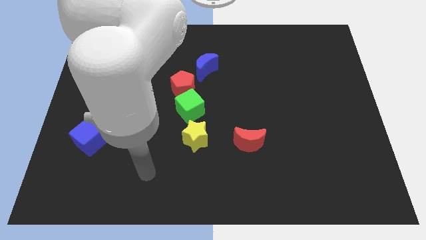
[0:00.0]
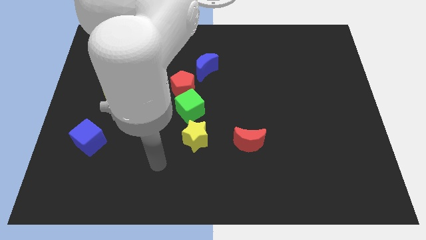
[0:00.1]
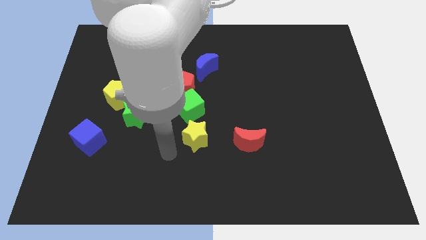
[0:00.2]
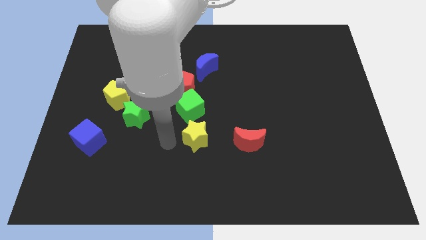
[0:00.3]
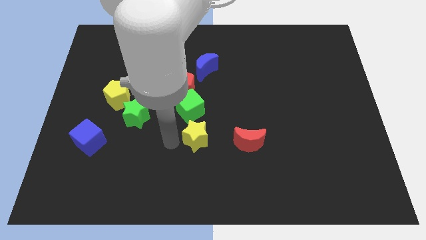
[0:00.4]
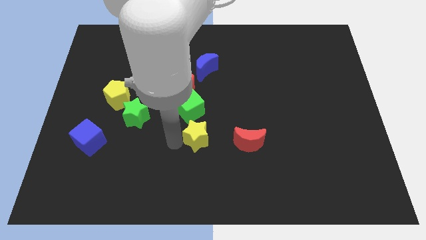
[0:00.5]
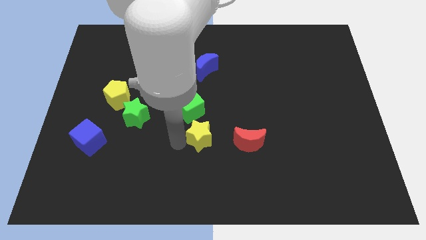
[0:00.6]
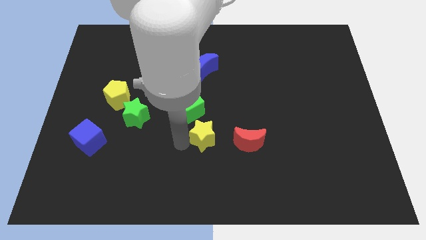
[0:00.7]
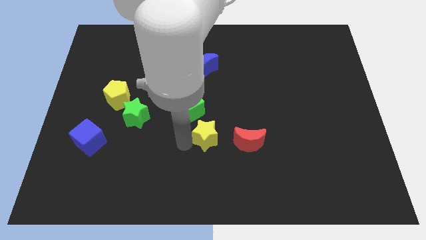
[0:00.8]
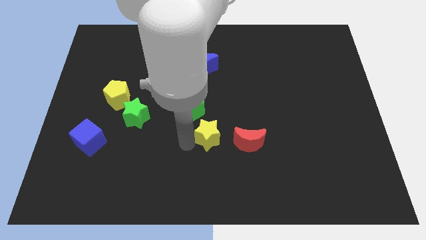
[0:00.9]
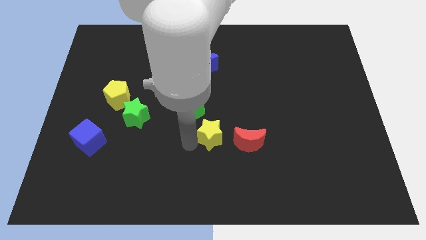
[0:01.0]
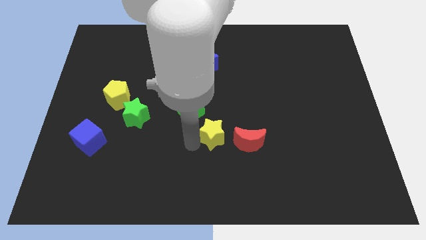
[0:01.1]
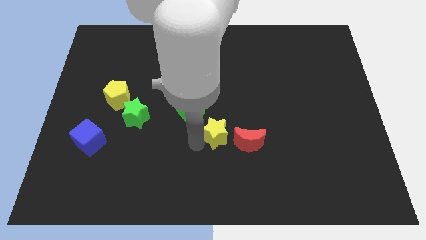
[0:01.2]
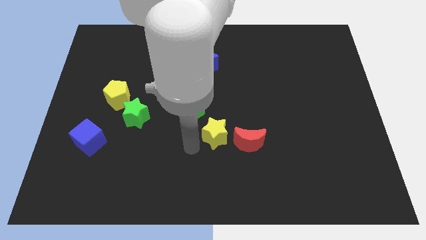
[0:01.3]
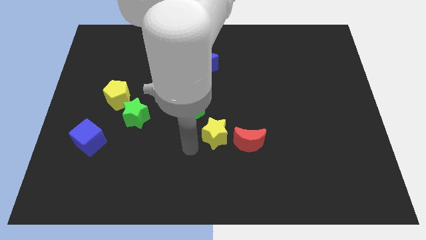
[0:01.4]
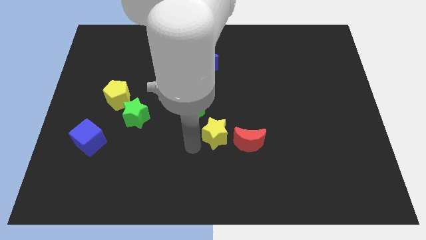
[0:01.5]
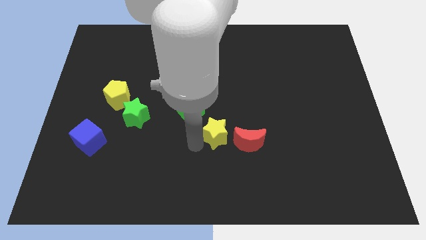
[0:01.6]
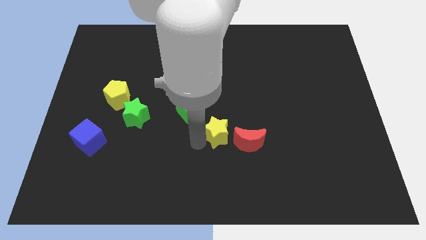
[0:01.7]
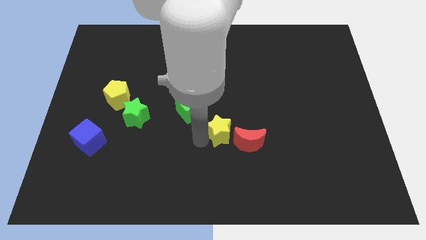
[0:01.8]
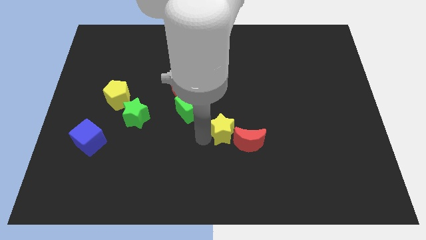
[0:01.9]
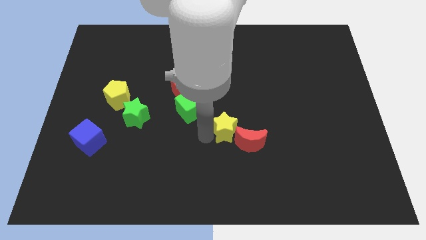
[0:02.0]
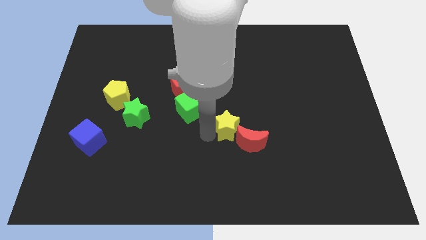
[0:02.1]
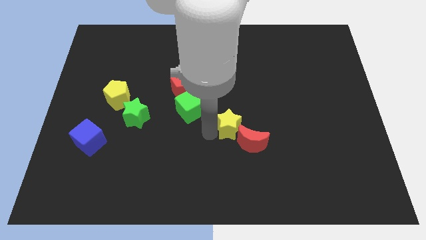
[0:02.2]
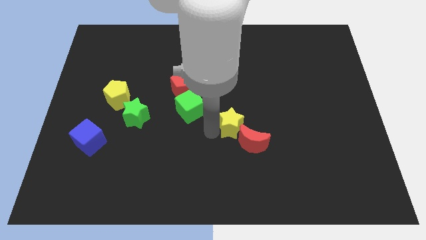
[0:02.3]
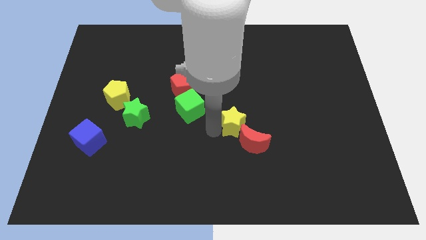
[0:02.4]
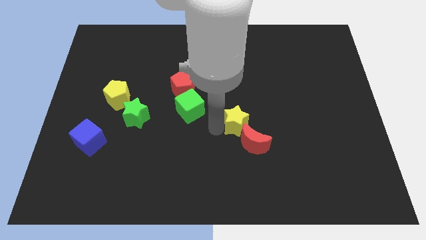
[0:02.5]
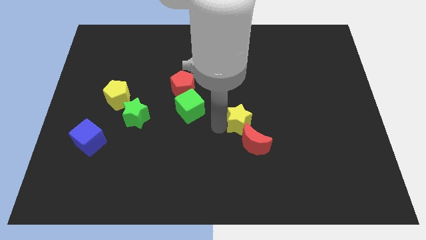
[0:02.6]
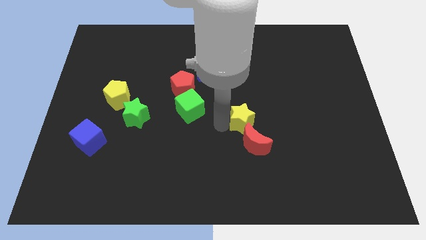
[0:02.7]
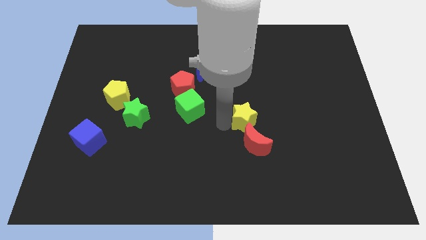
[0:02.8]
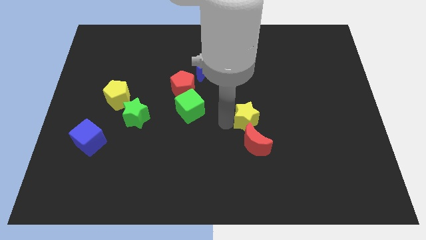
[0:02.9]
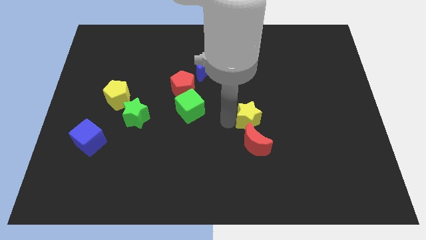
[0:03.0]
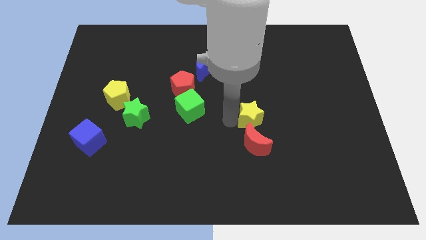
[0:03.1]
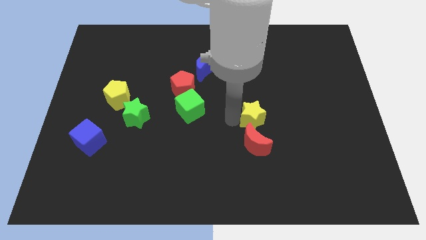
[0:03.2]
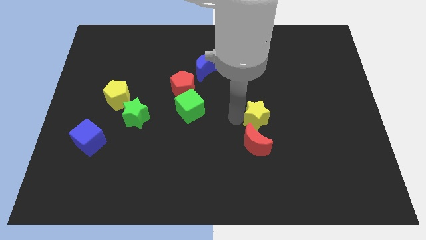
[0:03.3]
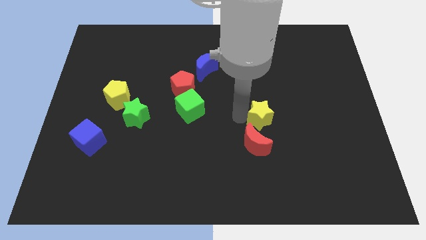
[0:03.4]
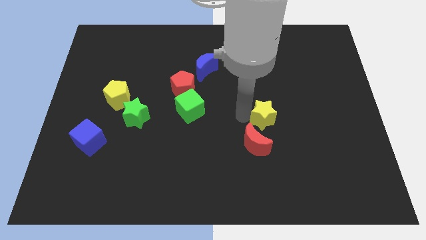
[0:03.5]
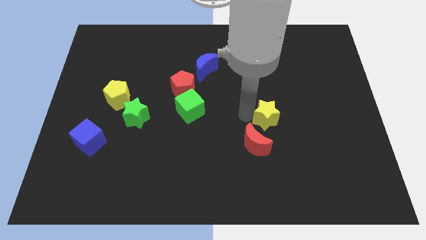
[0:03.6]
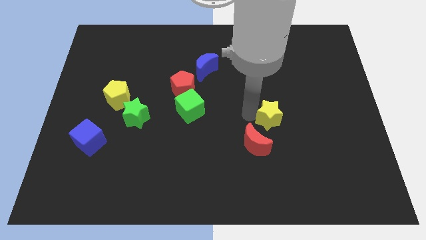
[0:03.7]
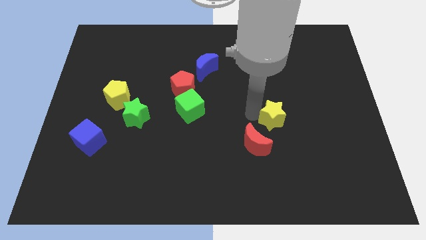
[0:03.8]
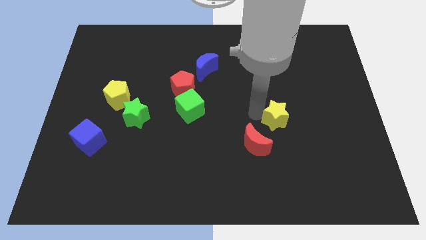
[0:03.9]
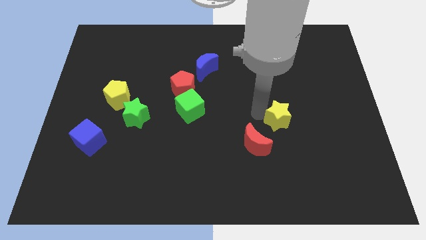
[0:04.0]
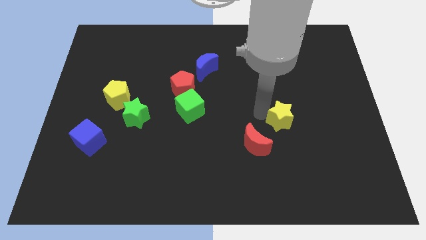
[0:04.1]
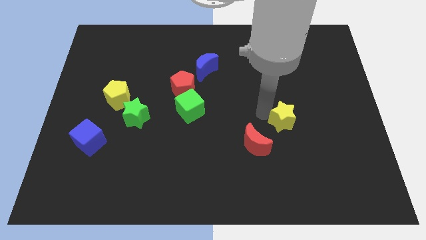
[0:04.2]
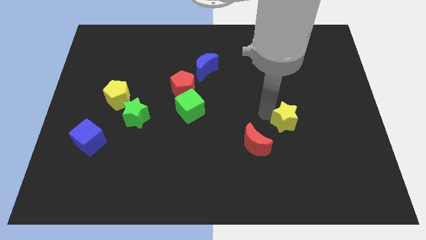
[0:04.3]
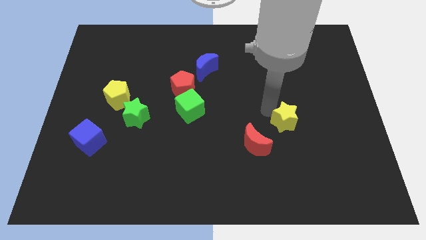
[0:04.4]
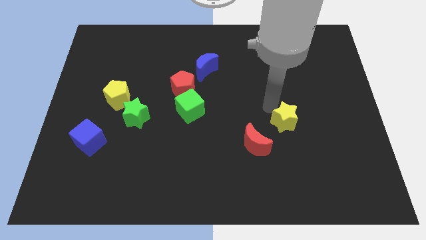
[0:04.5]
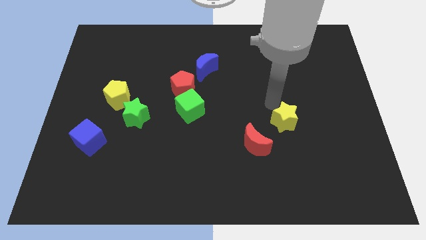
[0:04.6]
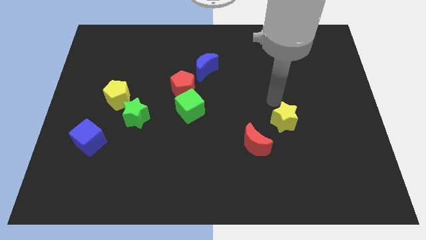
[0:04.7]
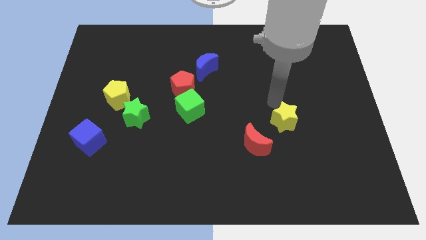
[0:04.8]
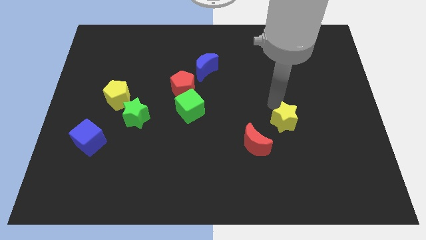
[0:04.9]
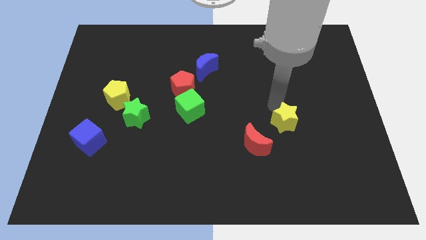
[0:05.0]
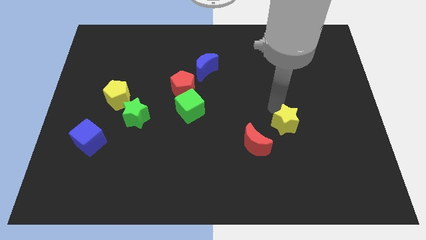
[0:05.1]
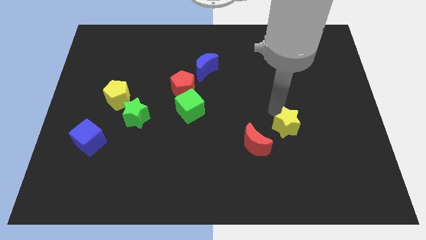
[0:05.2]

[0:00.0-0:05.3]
push the yellow star to the right

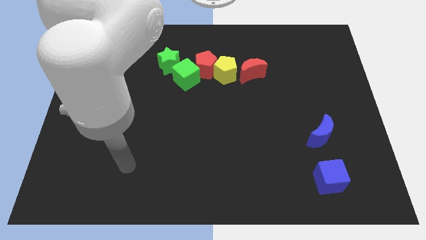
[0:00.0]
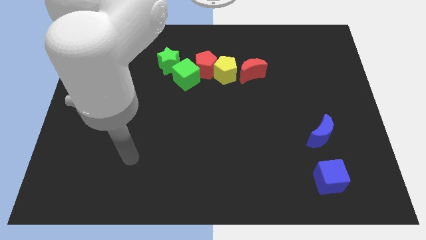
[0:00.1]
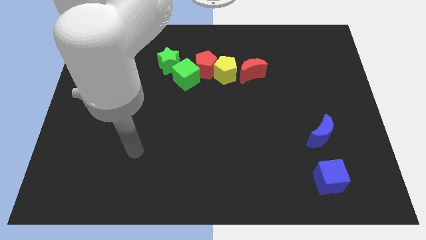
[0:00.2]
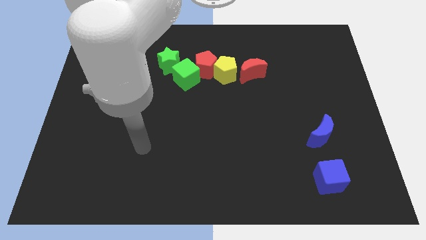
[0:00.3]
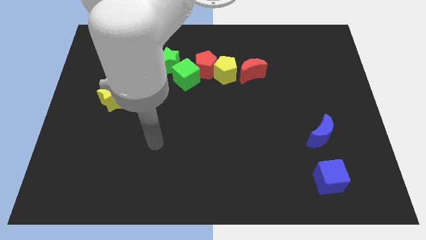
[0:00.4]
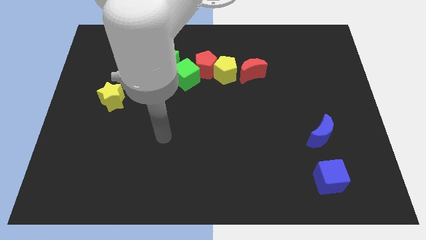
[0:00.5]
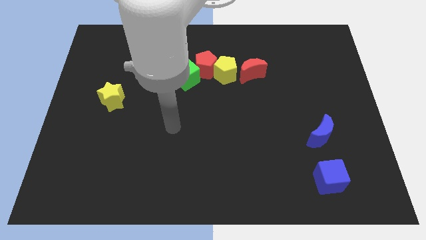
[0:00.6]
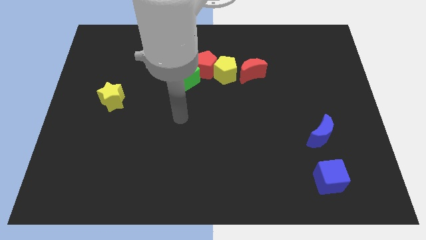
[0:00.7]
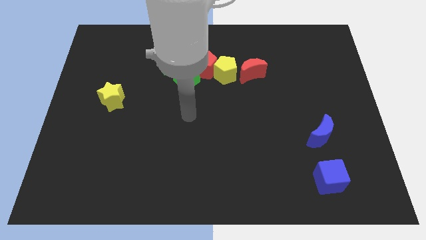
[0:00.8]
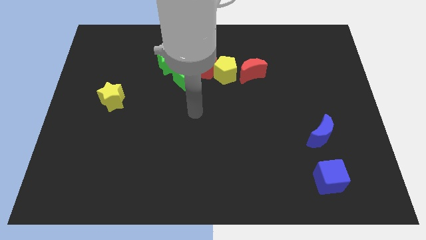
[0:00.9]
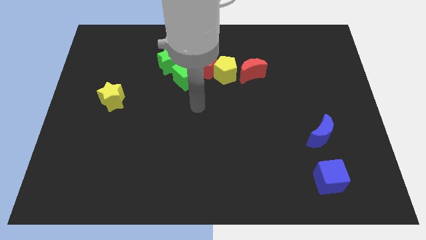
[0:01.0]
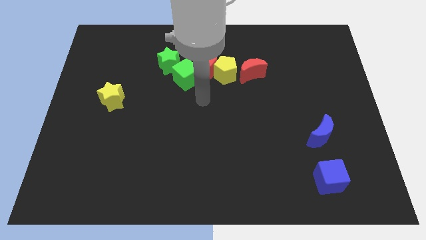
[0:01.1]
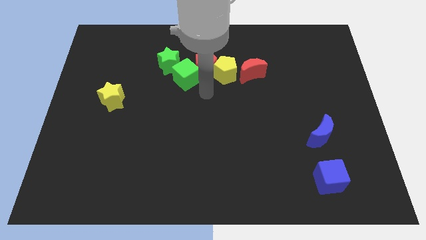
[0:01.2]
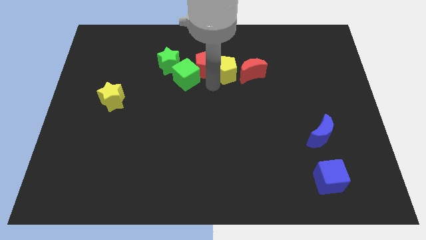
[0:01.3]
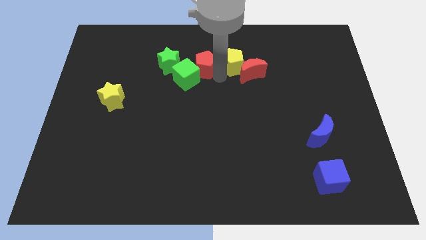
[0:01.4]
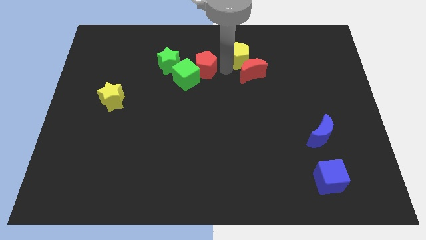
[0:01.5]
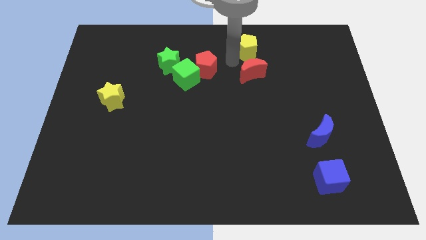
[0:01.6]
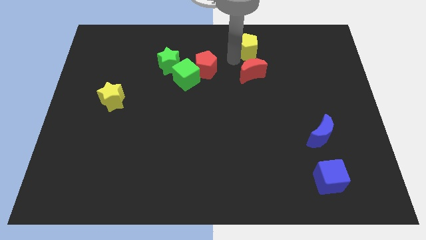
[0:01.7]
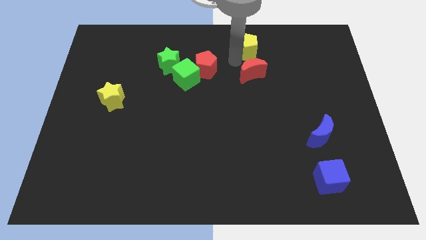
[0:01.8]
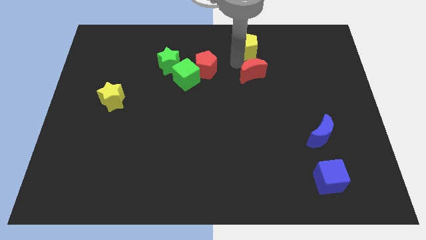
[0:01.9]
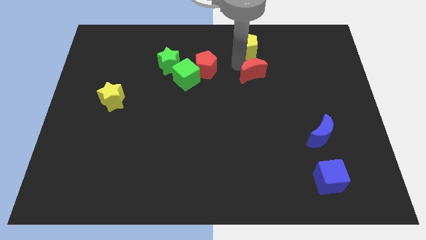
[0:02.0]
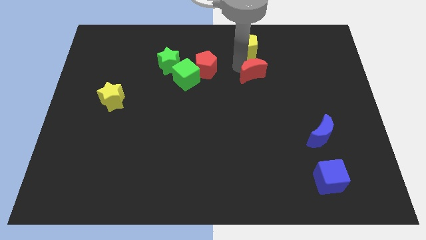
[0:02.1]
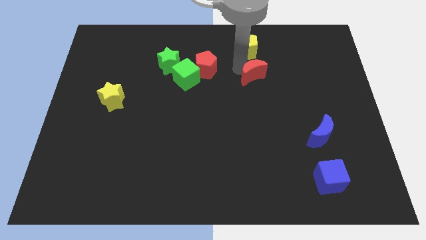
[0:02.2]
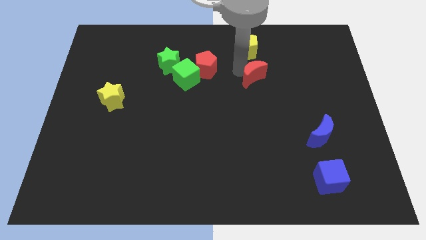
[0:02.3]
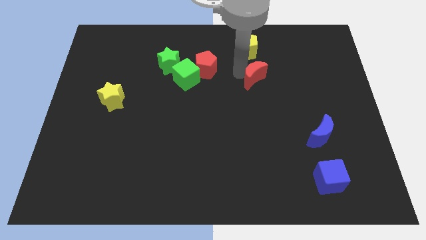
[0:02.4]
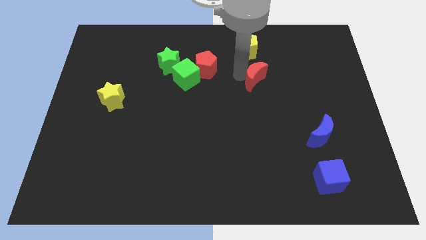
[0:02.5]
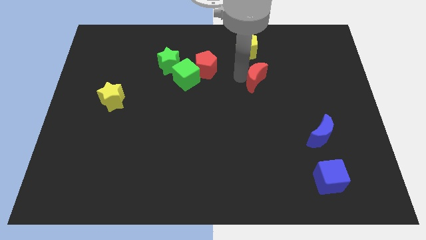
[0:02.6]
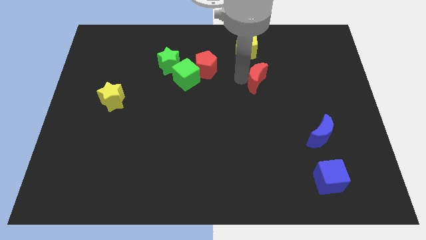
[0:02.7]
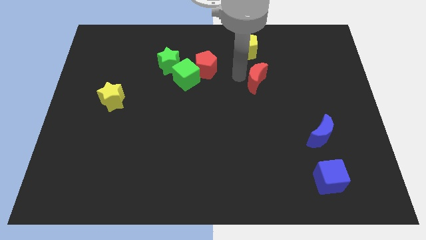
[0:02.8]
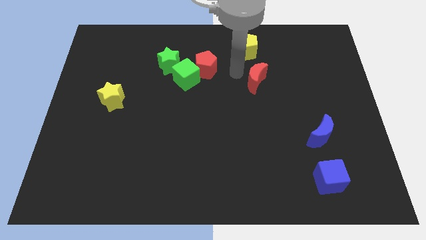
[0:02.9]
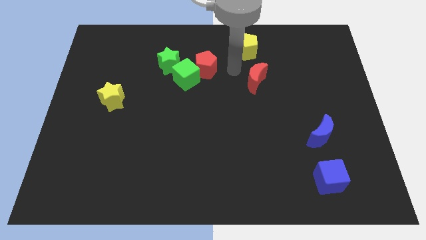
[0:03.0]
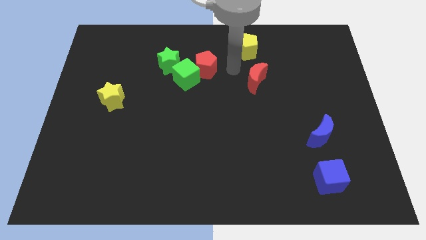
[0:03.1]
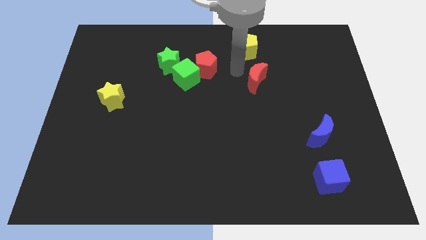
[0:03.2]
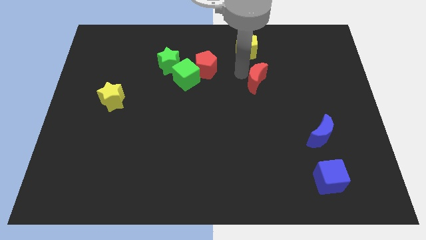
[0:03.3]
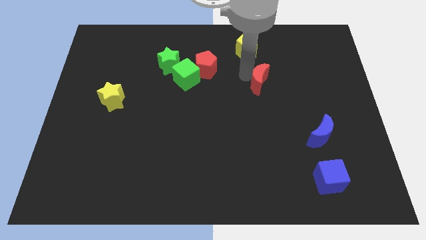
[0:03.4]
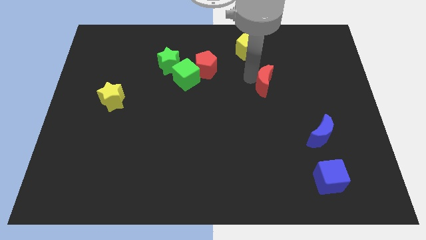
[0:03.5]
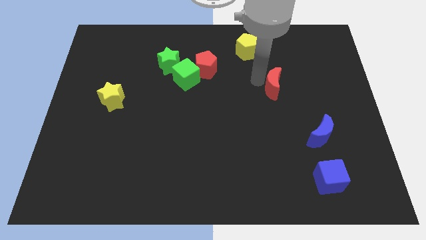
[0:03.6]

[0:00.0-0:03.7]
move the red moon a little bit downwards and right
